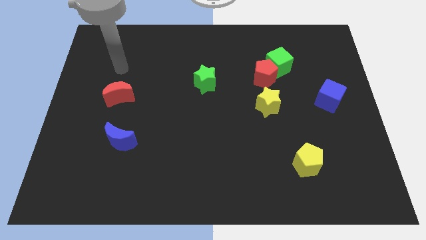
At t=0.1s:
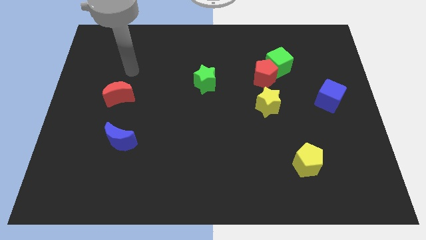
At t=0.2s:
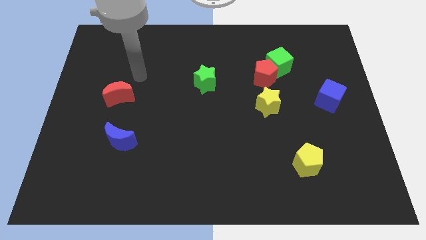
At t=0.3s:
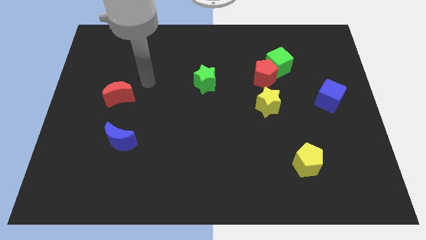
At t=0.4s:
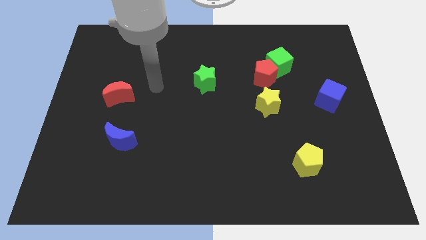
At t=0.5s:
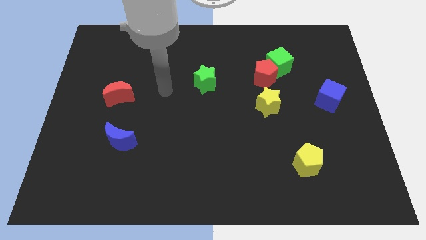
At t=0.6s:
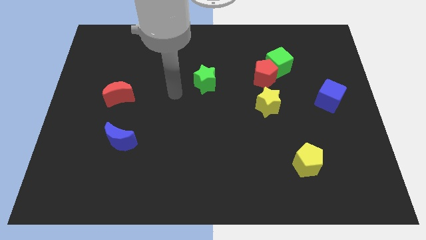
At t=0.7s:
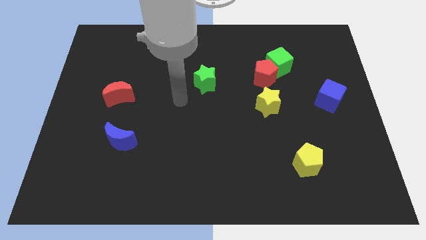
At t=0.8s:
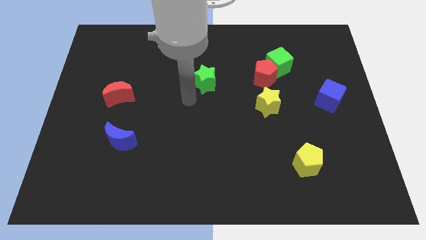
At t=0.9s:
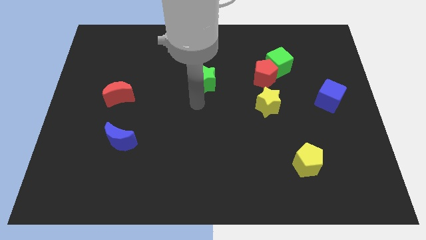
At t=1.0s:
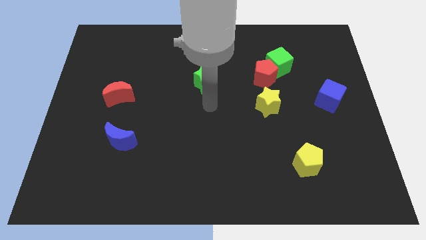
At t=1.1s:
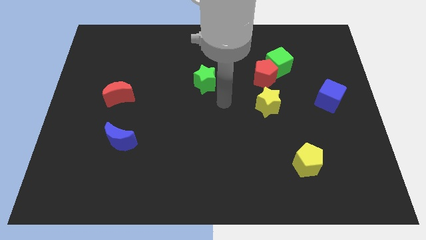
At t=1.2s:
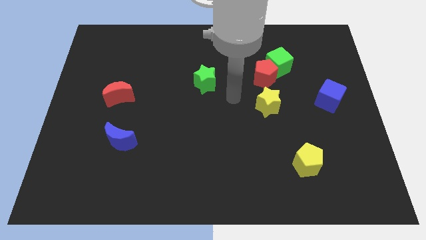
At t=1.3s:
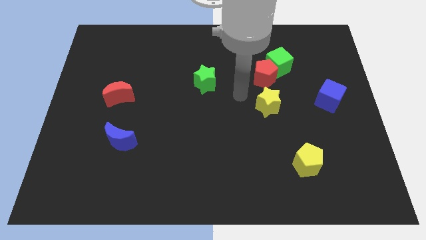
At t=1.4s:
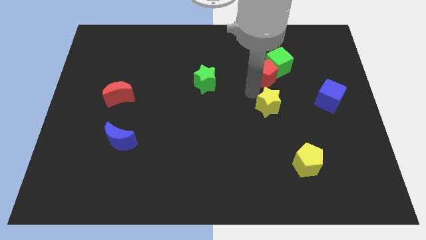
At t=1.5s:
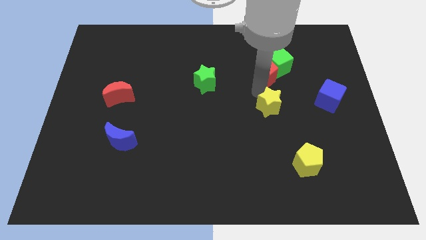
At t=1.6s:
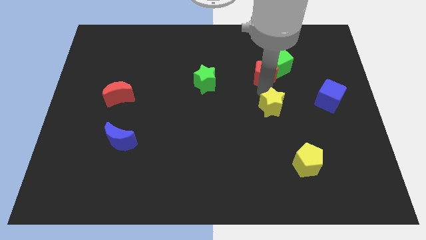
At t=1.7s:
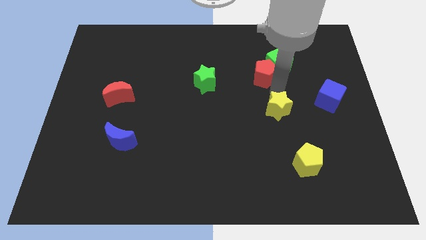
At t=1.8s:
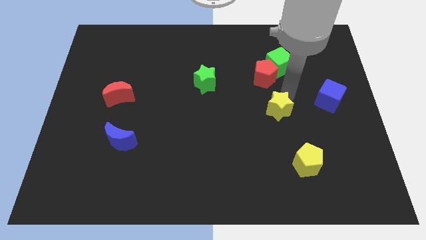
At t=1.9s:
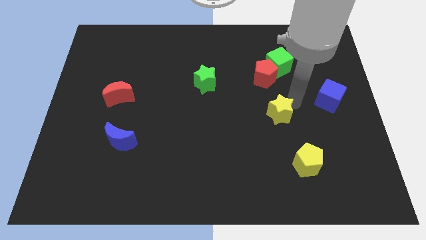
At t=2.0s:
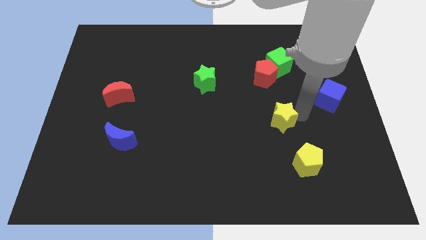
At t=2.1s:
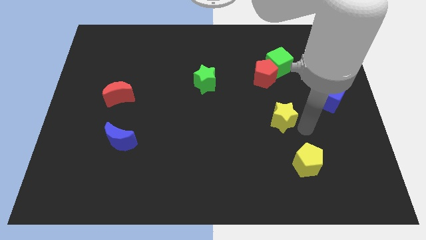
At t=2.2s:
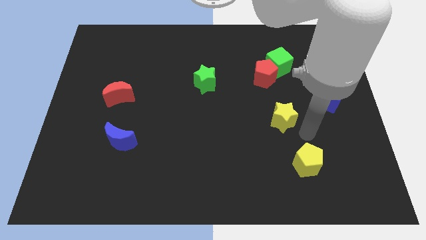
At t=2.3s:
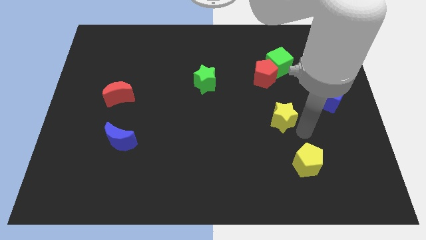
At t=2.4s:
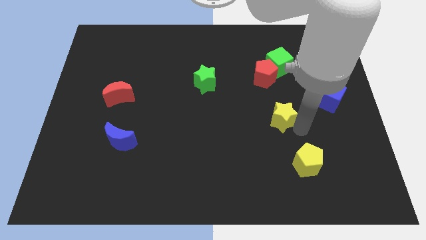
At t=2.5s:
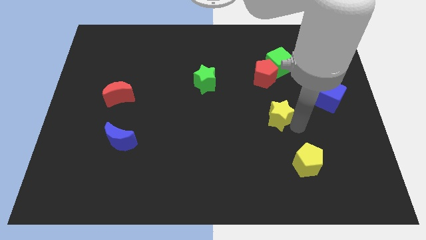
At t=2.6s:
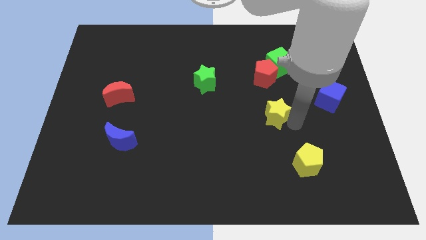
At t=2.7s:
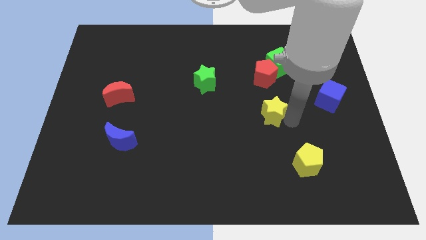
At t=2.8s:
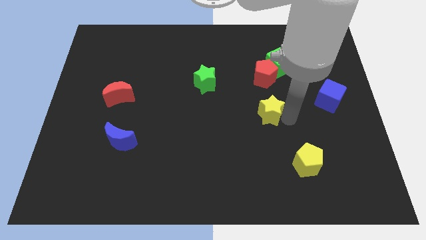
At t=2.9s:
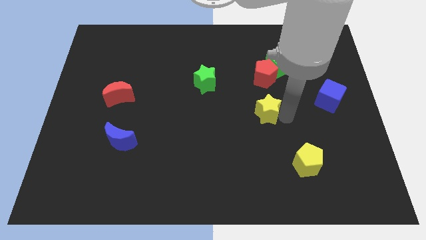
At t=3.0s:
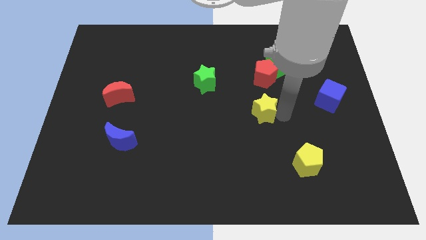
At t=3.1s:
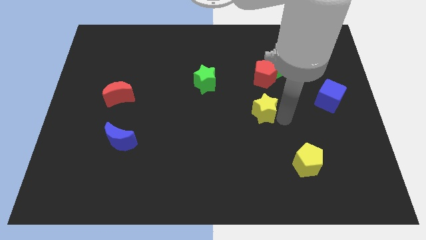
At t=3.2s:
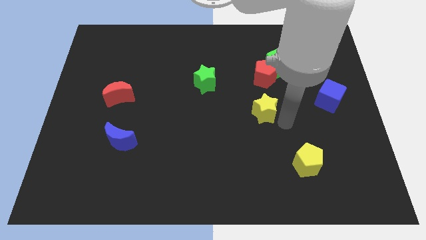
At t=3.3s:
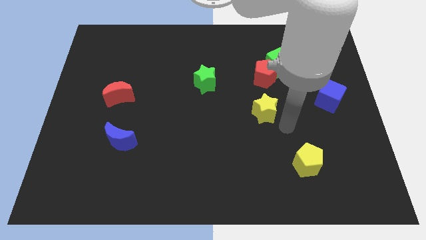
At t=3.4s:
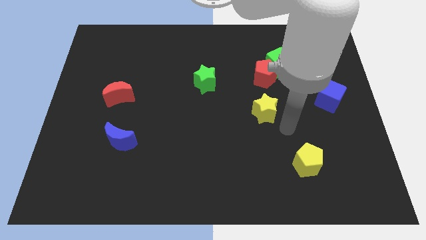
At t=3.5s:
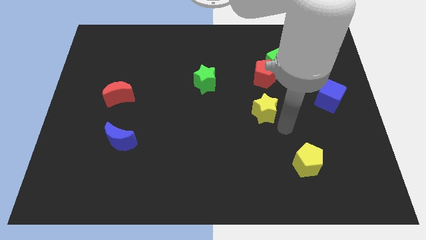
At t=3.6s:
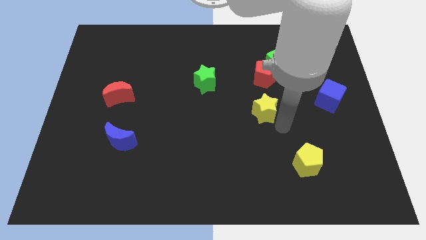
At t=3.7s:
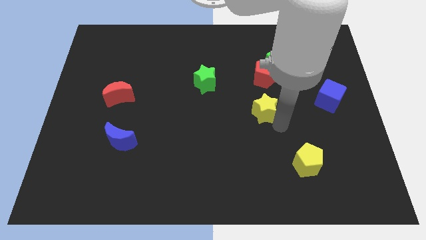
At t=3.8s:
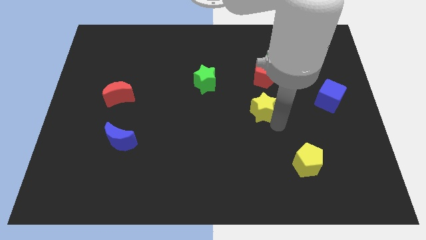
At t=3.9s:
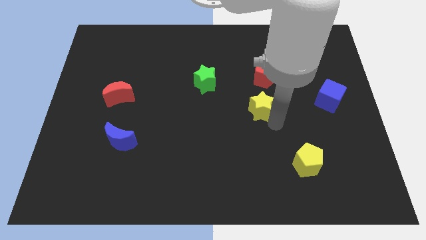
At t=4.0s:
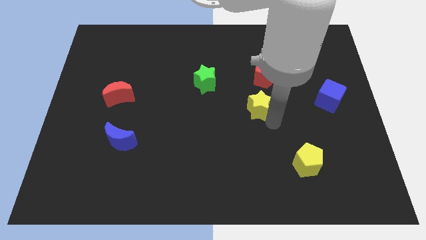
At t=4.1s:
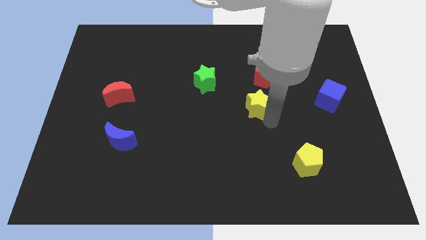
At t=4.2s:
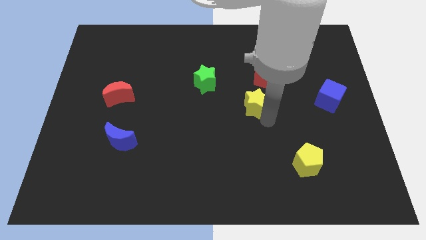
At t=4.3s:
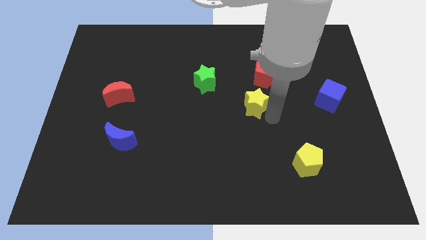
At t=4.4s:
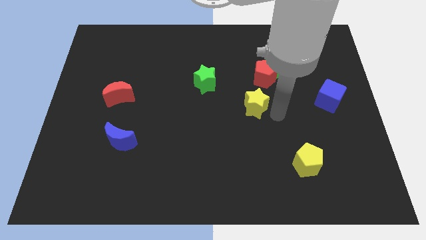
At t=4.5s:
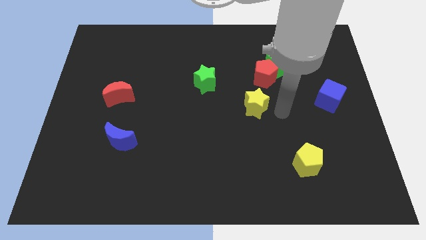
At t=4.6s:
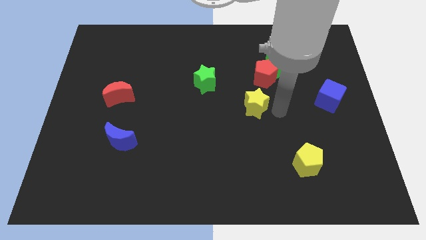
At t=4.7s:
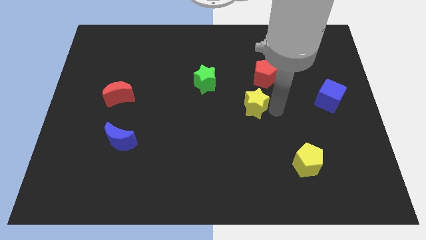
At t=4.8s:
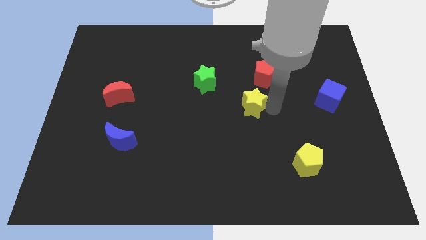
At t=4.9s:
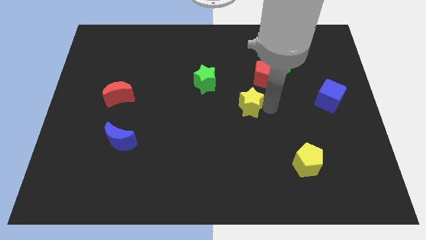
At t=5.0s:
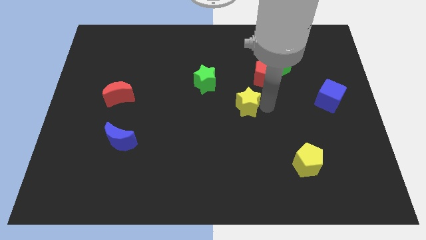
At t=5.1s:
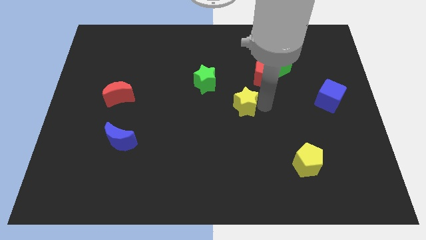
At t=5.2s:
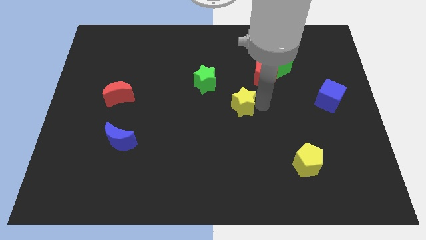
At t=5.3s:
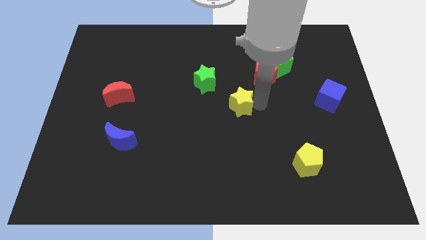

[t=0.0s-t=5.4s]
slightly move the yellow star to the left

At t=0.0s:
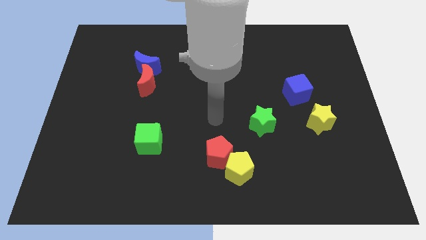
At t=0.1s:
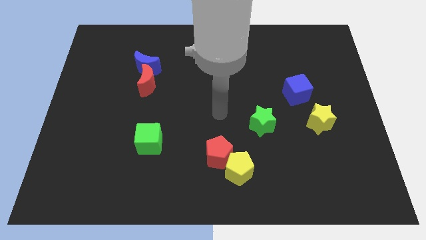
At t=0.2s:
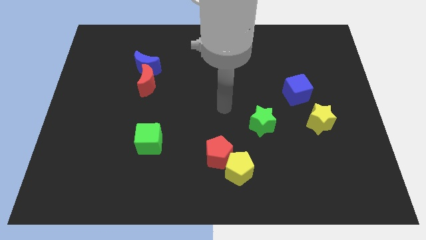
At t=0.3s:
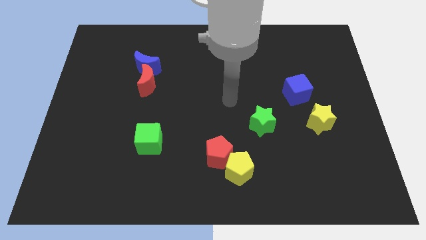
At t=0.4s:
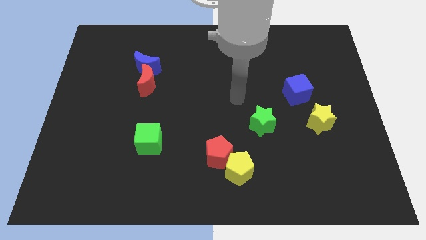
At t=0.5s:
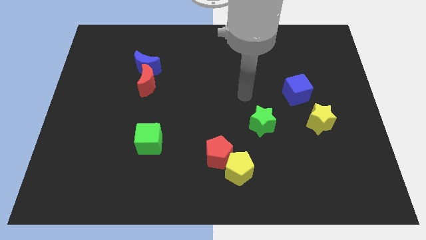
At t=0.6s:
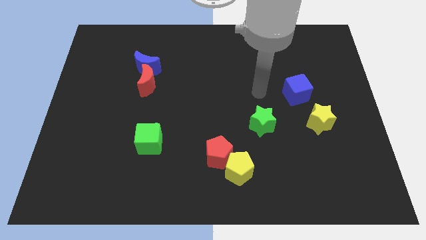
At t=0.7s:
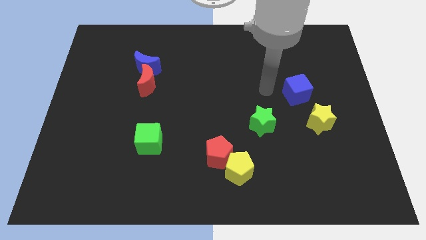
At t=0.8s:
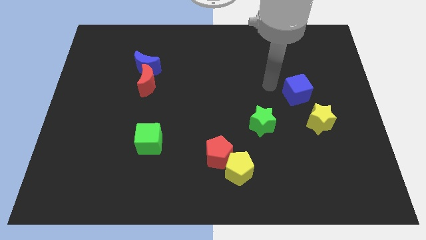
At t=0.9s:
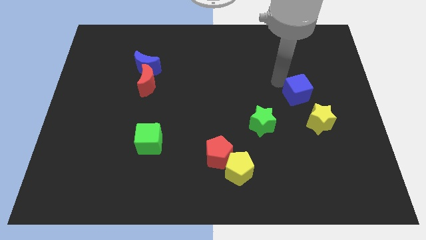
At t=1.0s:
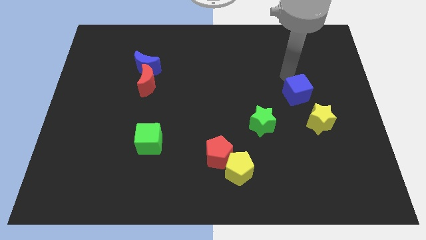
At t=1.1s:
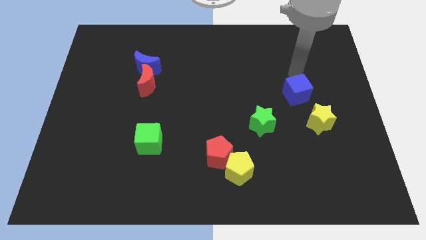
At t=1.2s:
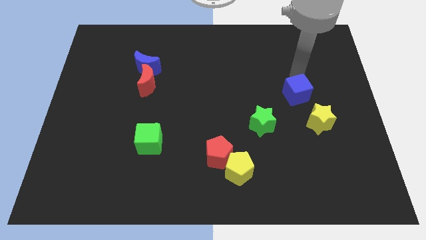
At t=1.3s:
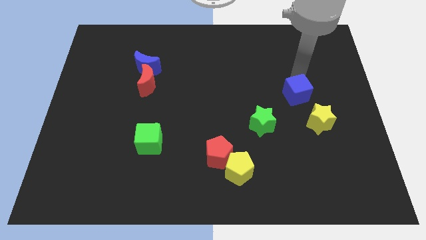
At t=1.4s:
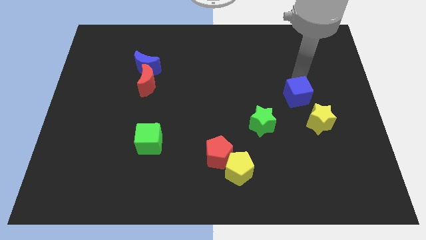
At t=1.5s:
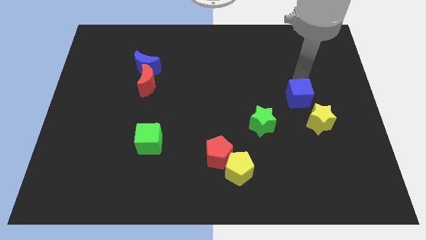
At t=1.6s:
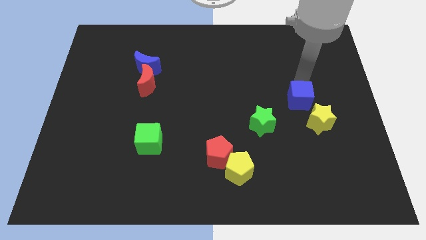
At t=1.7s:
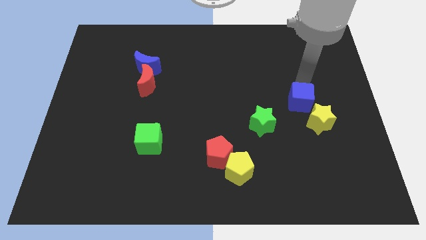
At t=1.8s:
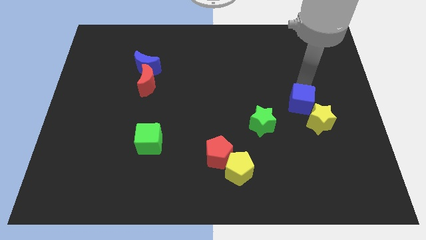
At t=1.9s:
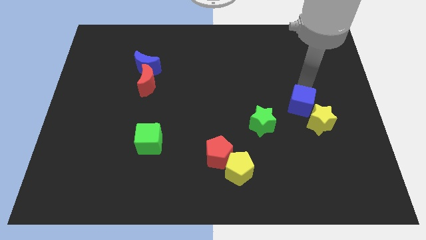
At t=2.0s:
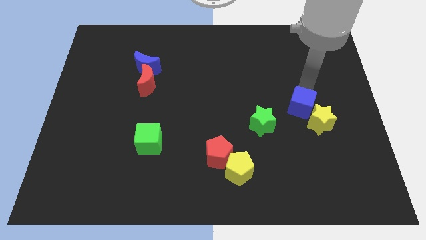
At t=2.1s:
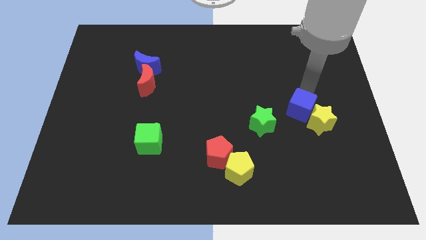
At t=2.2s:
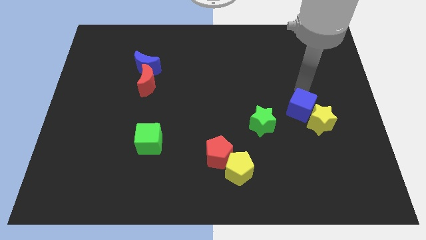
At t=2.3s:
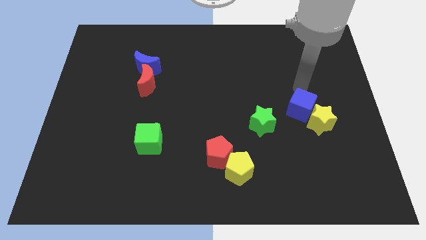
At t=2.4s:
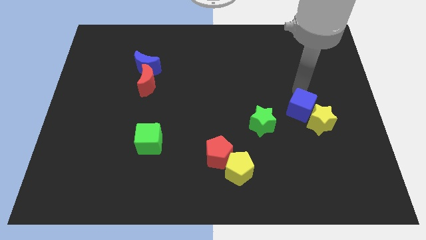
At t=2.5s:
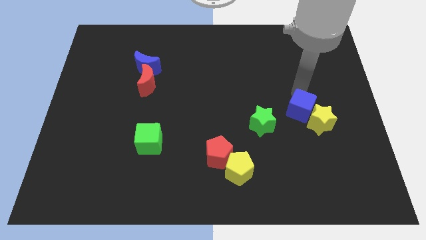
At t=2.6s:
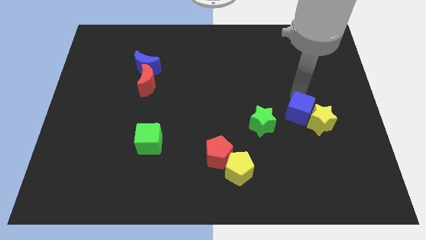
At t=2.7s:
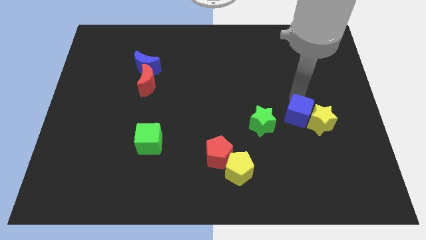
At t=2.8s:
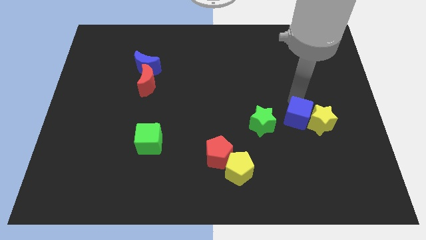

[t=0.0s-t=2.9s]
slightly slide the blue cube downwards
